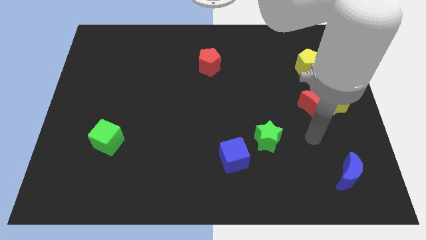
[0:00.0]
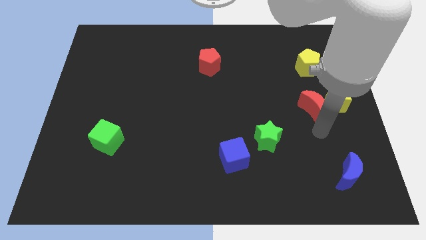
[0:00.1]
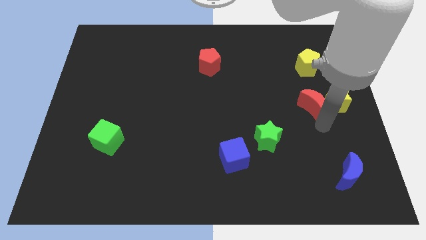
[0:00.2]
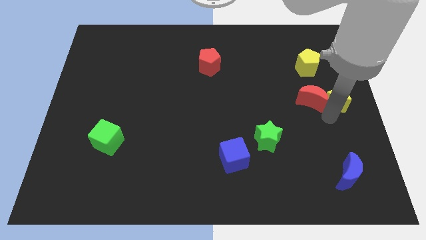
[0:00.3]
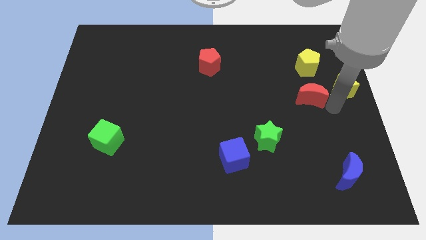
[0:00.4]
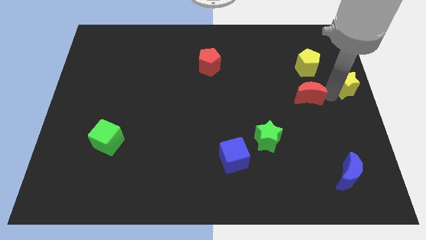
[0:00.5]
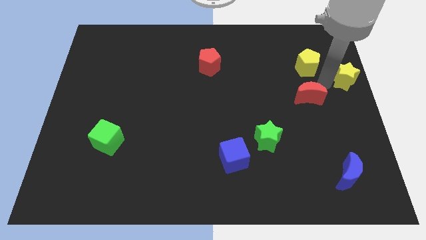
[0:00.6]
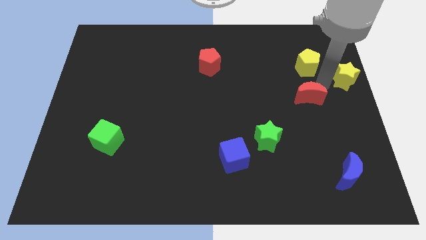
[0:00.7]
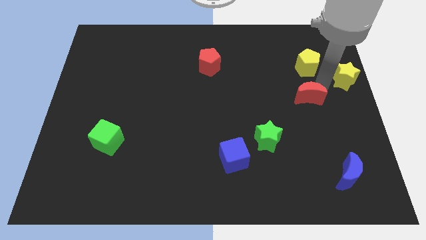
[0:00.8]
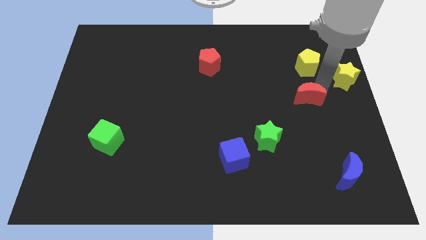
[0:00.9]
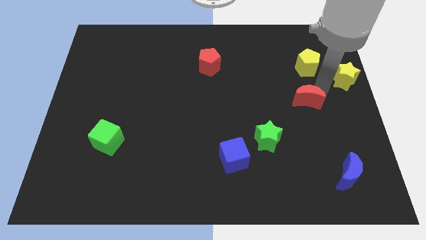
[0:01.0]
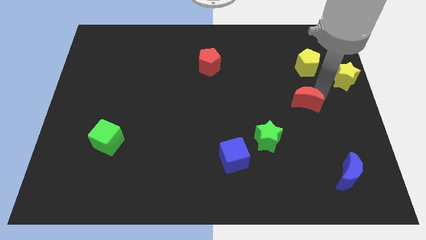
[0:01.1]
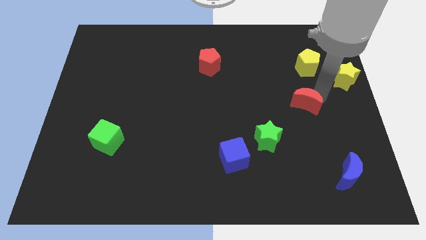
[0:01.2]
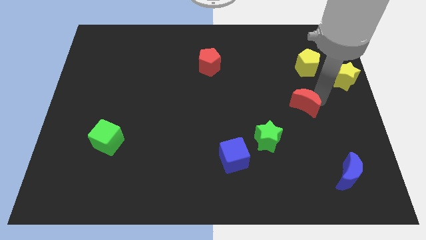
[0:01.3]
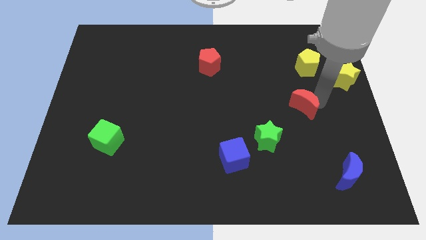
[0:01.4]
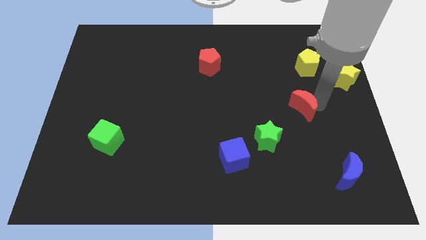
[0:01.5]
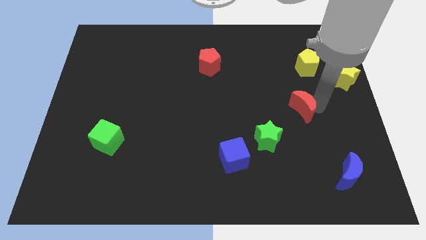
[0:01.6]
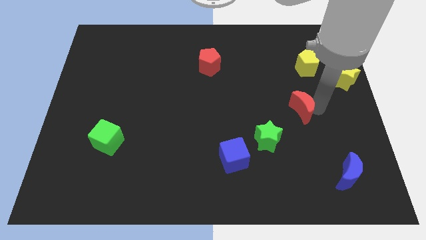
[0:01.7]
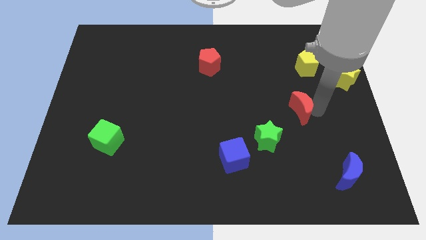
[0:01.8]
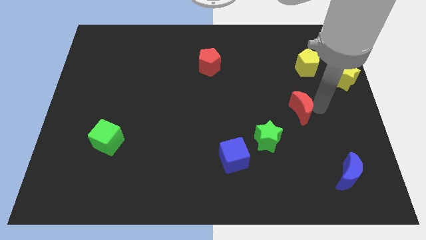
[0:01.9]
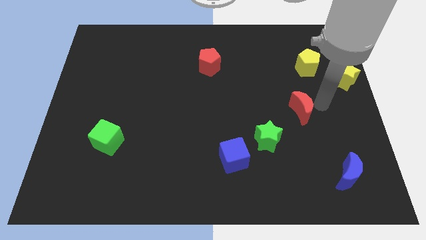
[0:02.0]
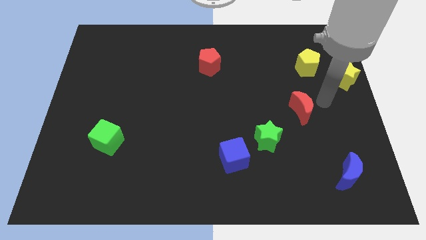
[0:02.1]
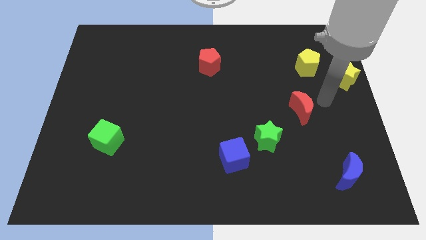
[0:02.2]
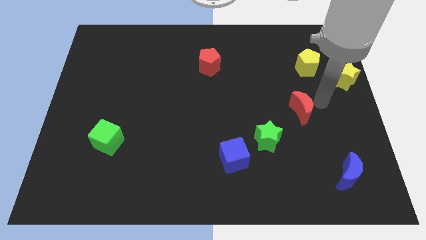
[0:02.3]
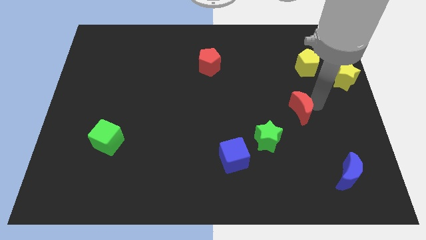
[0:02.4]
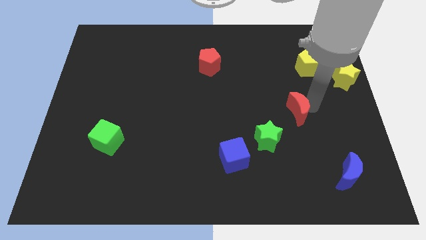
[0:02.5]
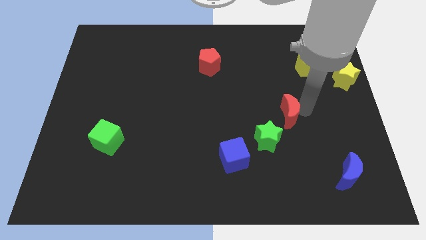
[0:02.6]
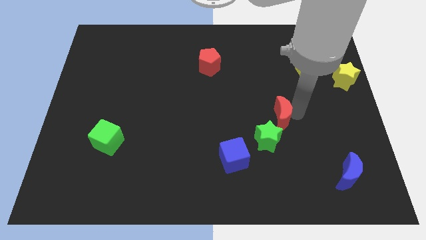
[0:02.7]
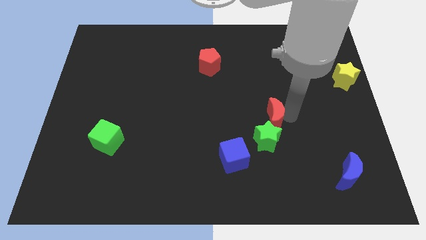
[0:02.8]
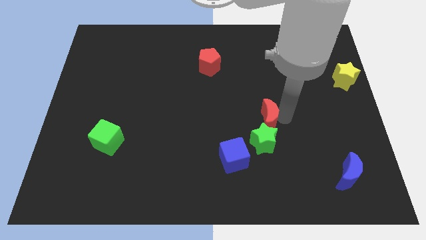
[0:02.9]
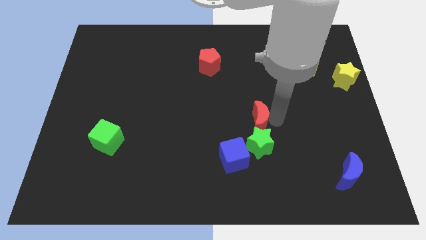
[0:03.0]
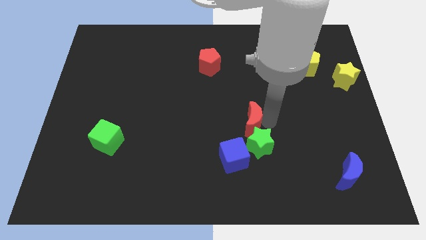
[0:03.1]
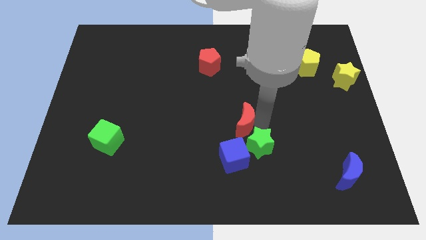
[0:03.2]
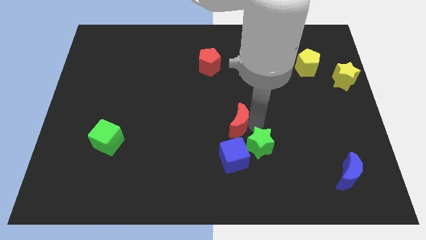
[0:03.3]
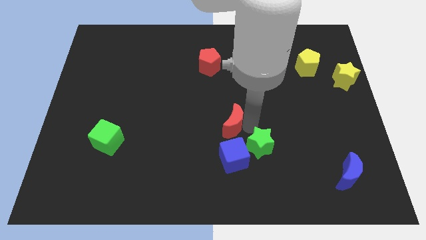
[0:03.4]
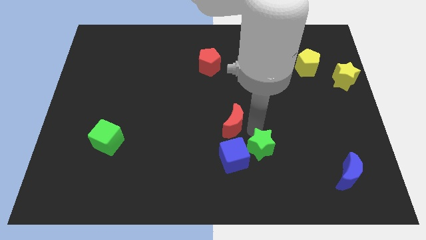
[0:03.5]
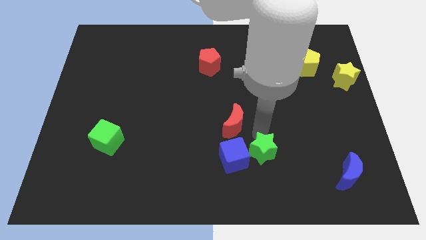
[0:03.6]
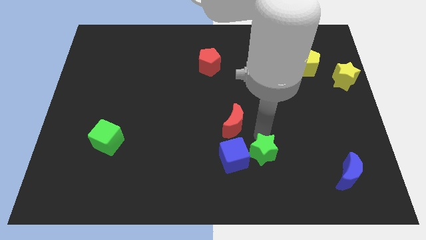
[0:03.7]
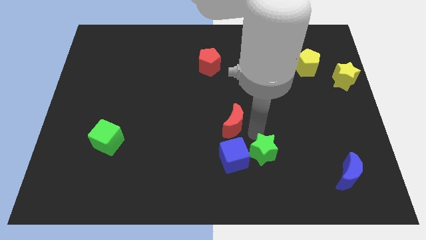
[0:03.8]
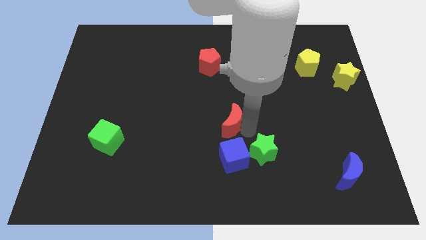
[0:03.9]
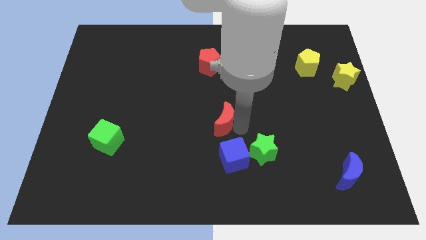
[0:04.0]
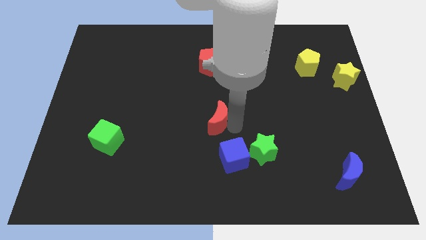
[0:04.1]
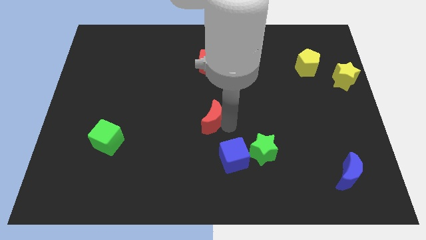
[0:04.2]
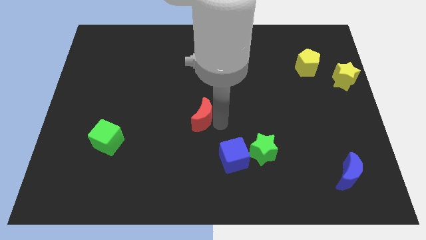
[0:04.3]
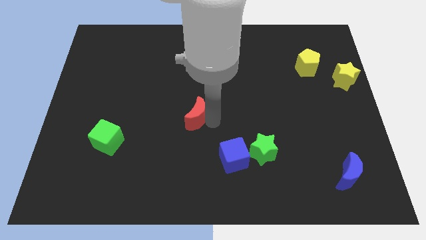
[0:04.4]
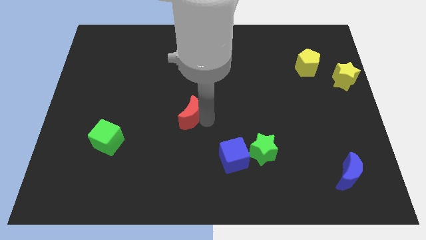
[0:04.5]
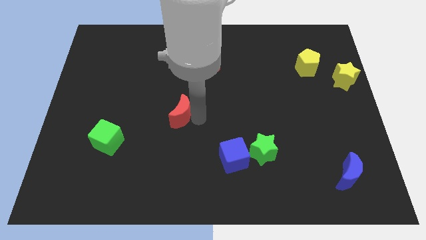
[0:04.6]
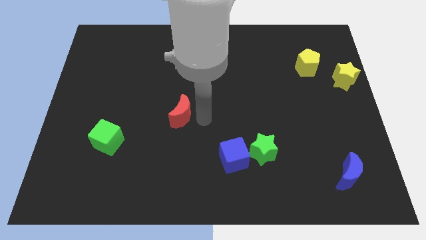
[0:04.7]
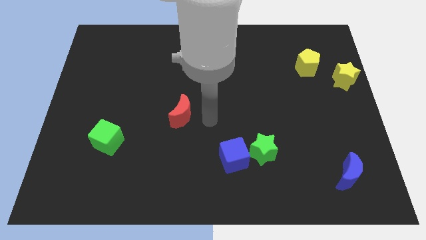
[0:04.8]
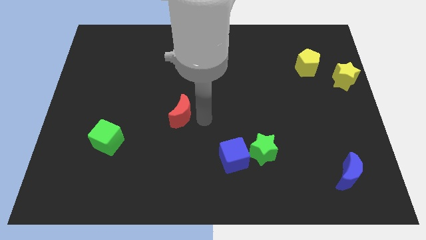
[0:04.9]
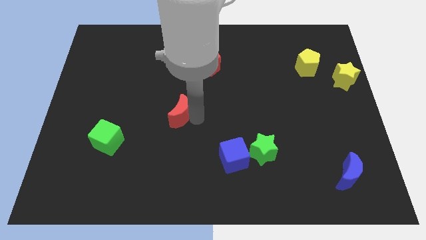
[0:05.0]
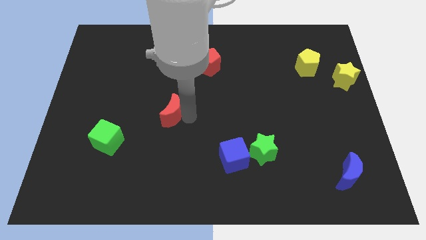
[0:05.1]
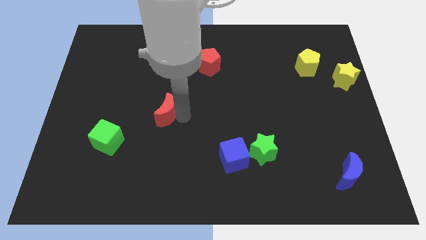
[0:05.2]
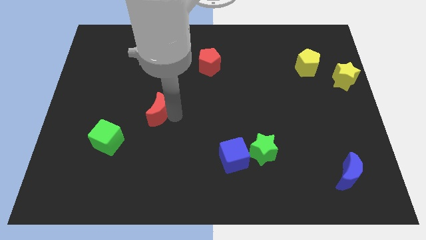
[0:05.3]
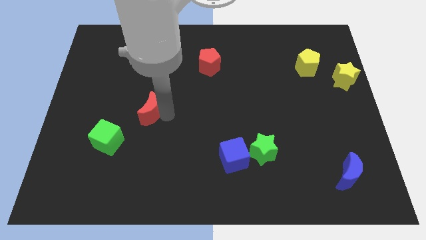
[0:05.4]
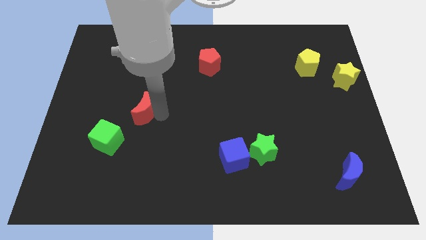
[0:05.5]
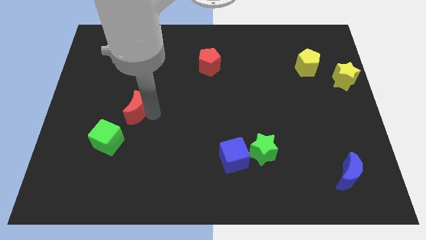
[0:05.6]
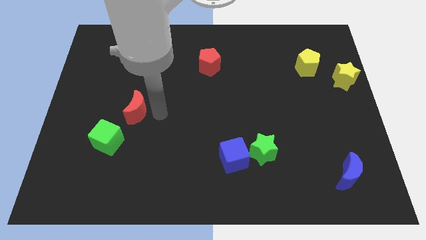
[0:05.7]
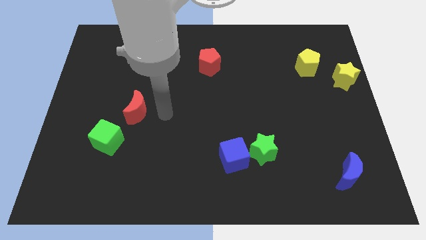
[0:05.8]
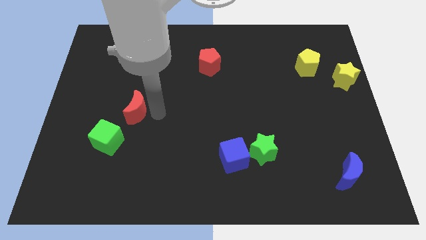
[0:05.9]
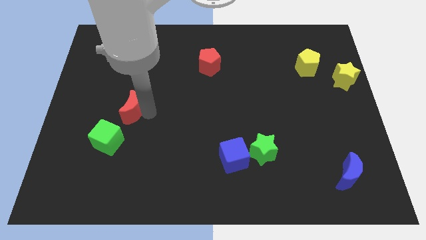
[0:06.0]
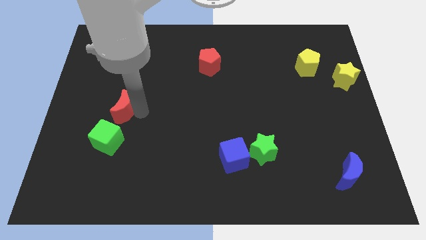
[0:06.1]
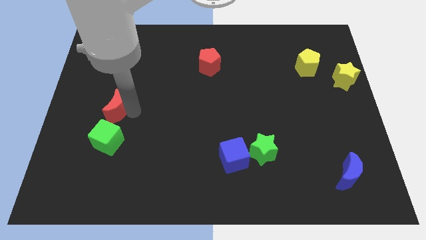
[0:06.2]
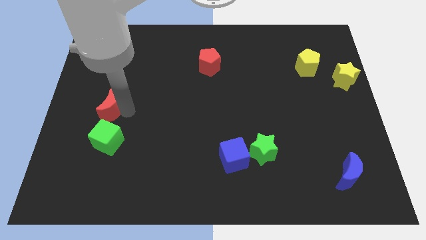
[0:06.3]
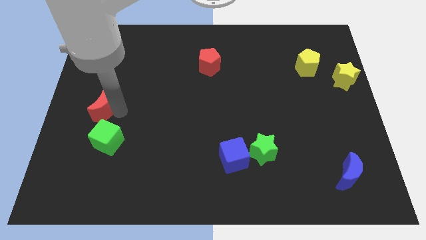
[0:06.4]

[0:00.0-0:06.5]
slide the red moon to the center left
